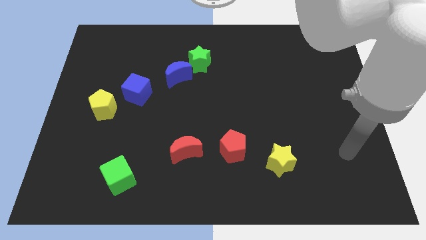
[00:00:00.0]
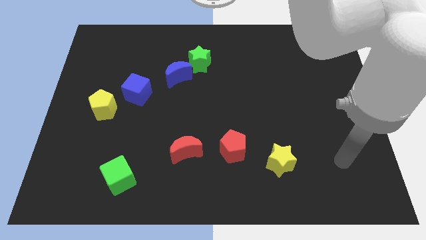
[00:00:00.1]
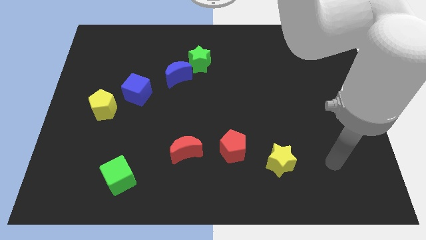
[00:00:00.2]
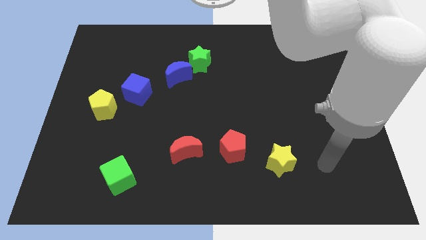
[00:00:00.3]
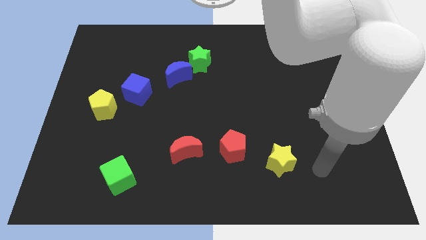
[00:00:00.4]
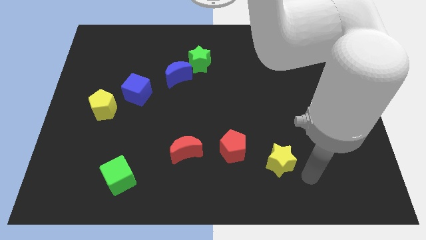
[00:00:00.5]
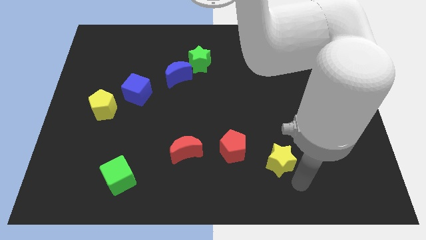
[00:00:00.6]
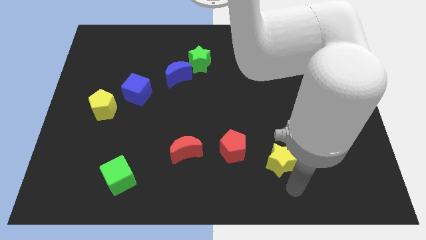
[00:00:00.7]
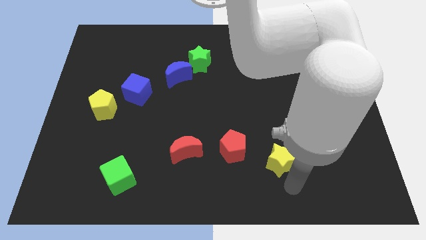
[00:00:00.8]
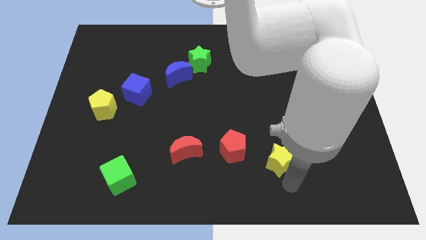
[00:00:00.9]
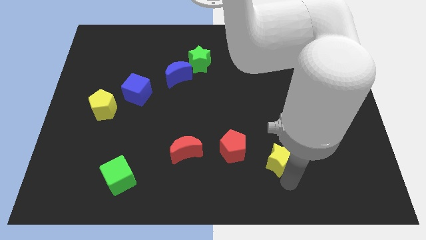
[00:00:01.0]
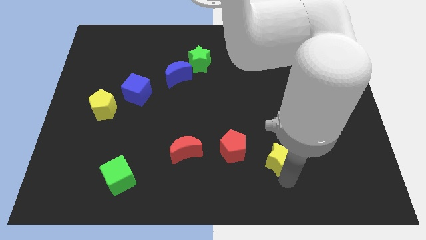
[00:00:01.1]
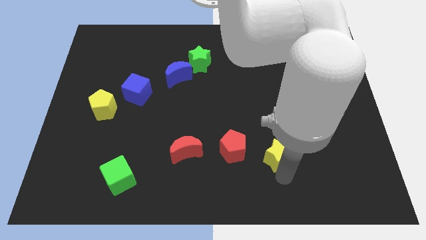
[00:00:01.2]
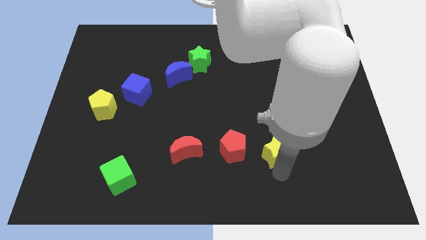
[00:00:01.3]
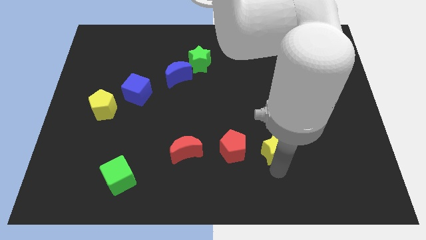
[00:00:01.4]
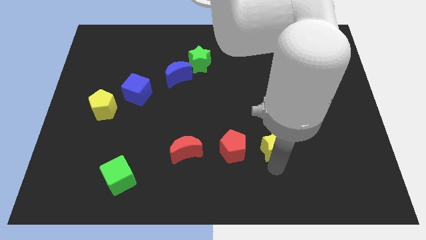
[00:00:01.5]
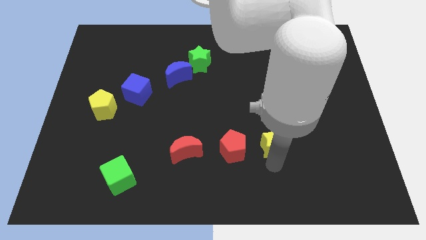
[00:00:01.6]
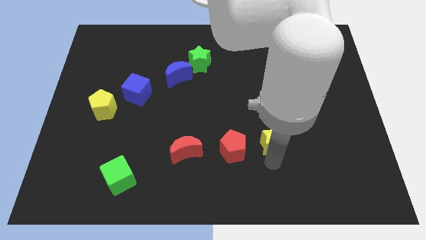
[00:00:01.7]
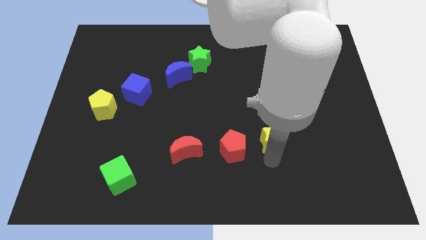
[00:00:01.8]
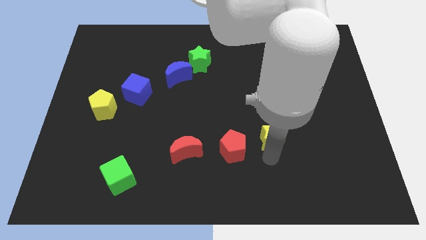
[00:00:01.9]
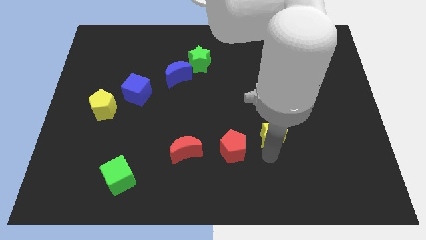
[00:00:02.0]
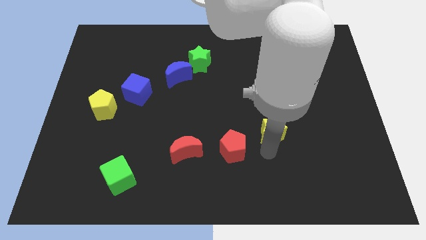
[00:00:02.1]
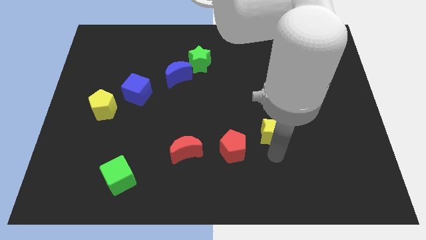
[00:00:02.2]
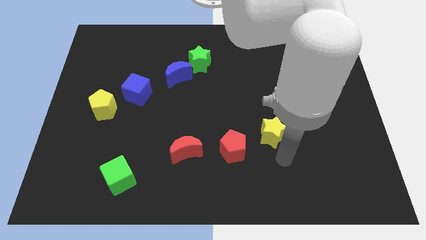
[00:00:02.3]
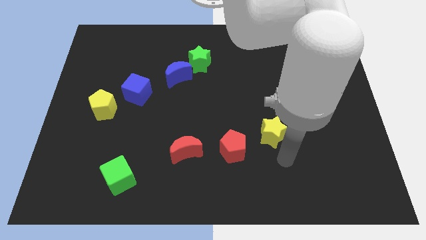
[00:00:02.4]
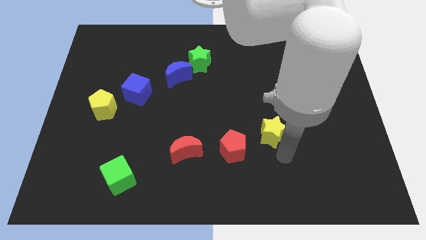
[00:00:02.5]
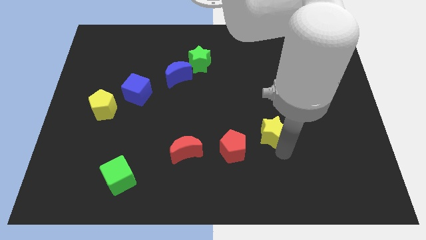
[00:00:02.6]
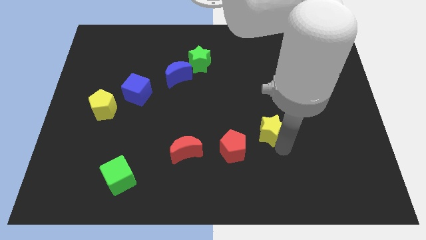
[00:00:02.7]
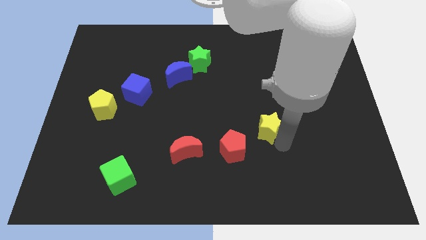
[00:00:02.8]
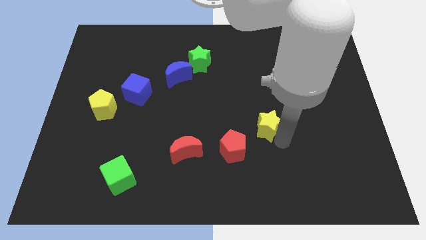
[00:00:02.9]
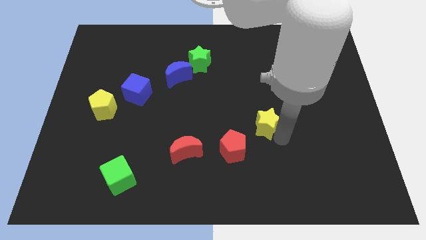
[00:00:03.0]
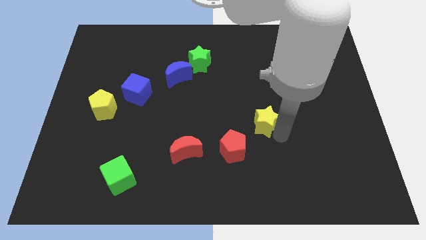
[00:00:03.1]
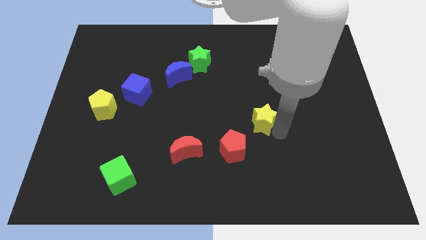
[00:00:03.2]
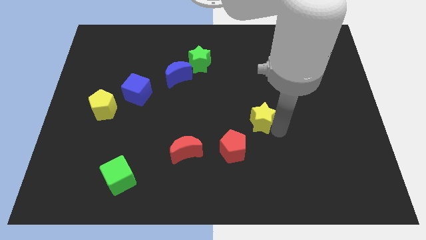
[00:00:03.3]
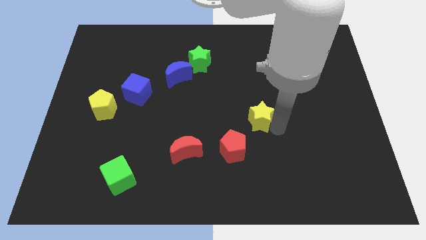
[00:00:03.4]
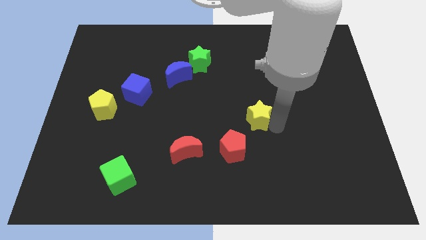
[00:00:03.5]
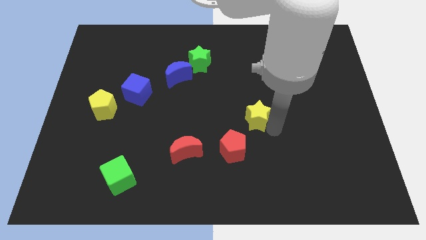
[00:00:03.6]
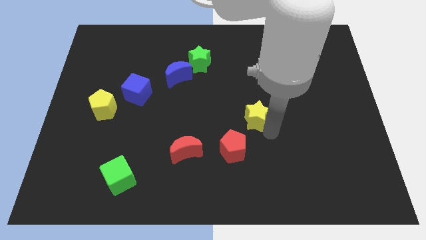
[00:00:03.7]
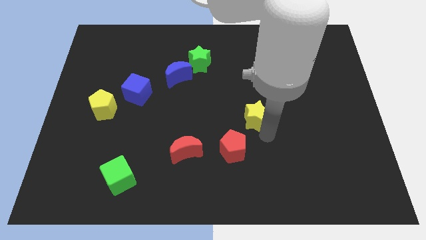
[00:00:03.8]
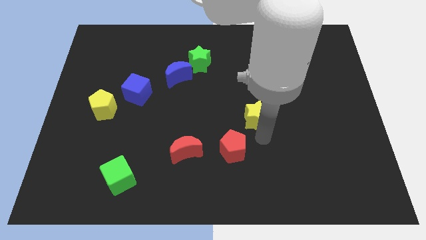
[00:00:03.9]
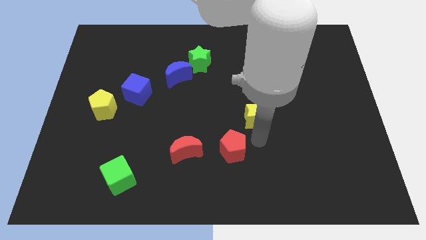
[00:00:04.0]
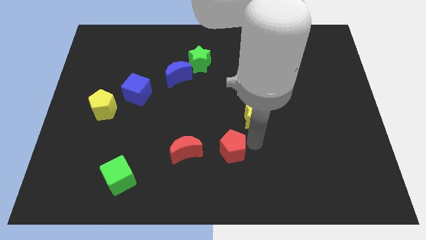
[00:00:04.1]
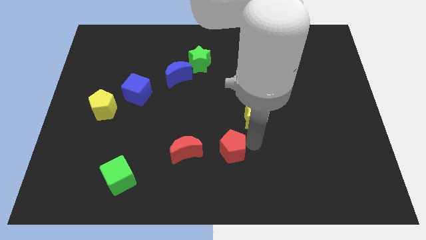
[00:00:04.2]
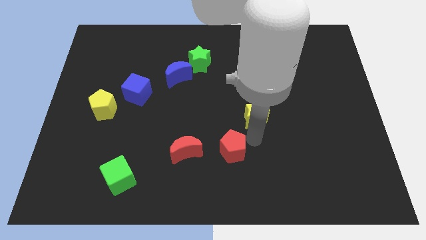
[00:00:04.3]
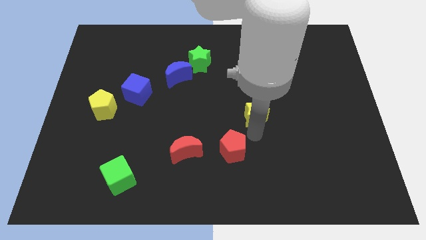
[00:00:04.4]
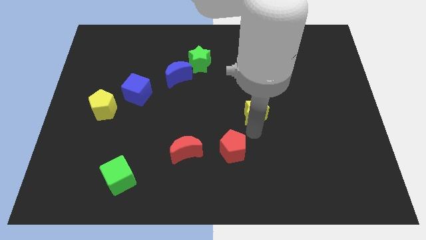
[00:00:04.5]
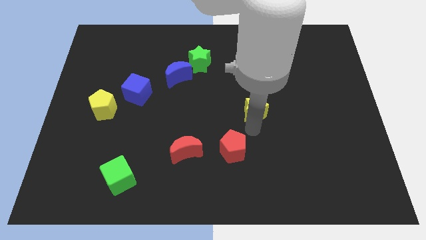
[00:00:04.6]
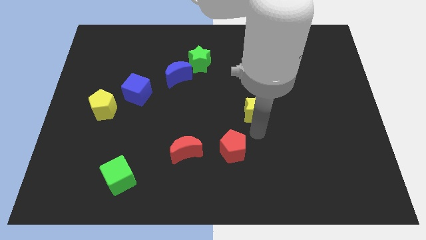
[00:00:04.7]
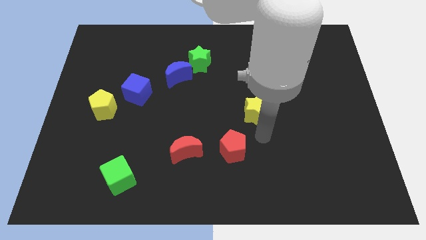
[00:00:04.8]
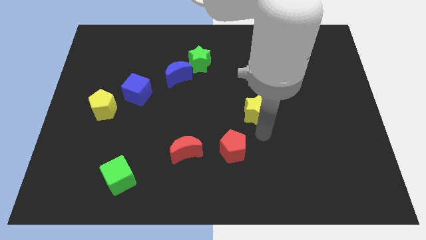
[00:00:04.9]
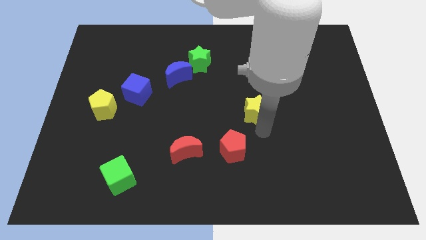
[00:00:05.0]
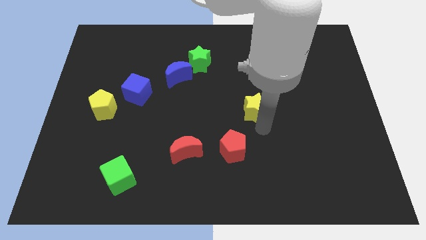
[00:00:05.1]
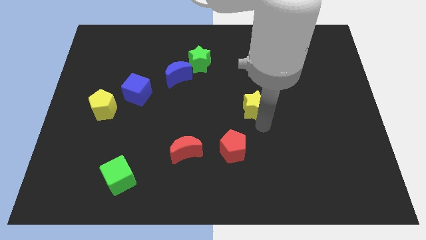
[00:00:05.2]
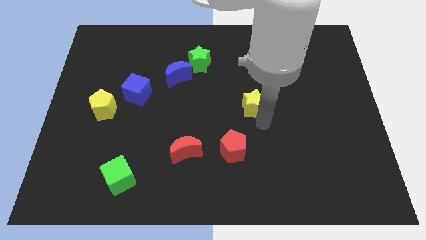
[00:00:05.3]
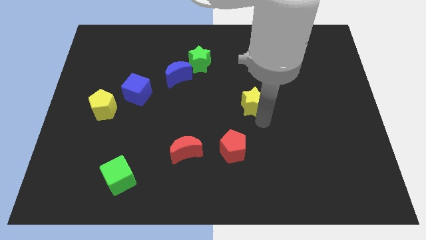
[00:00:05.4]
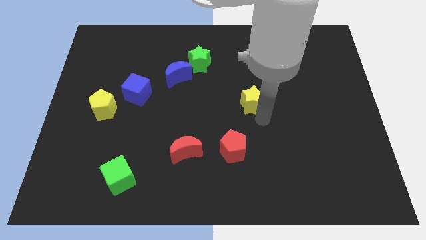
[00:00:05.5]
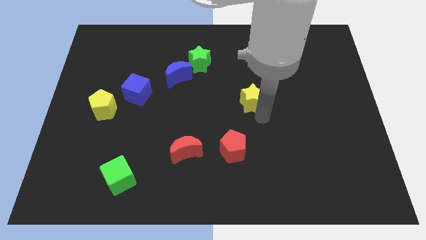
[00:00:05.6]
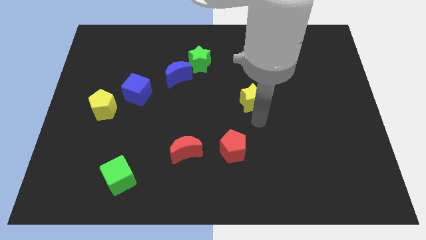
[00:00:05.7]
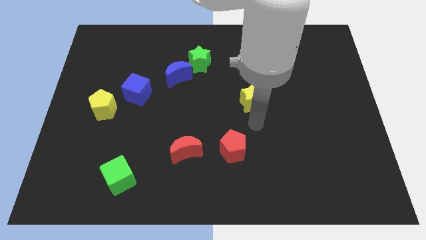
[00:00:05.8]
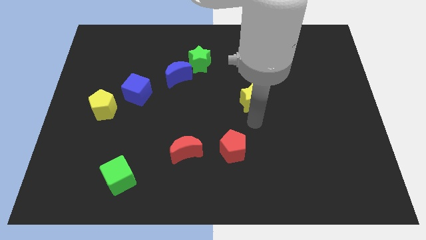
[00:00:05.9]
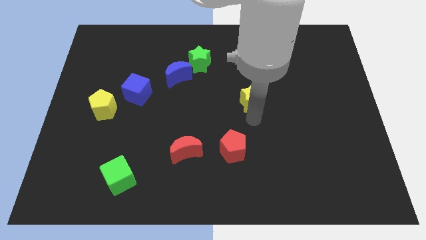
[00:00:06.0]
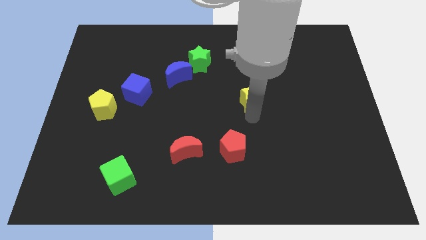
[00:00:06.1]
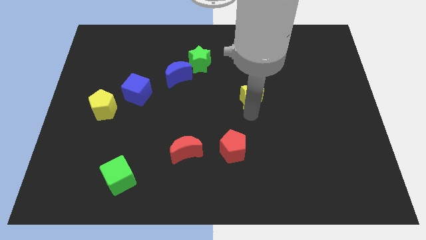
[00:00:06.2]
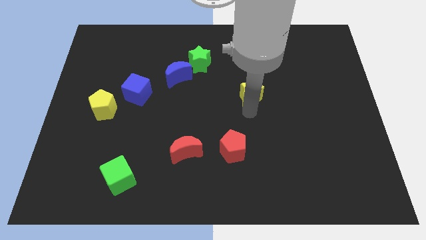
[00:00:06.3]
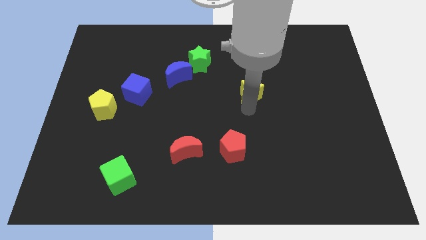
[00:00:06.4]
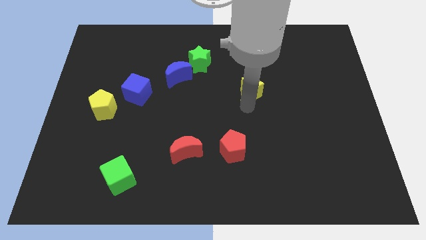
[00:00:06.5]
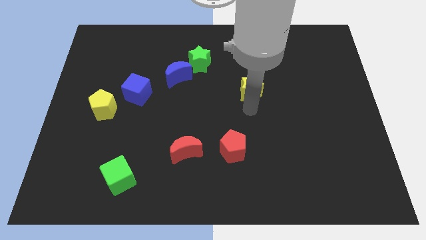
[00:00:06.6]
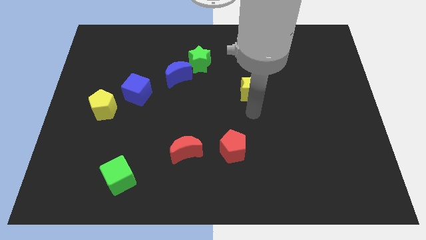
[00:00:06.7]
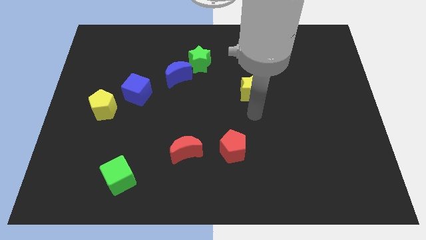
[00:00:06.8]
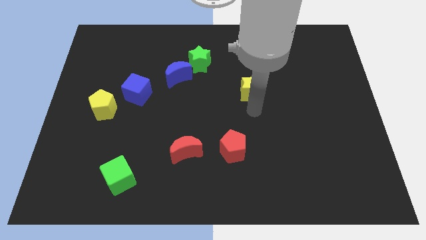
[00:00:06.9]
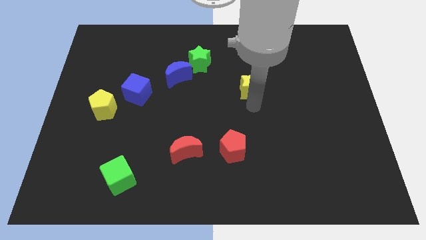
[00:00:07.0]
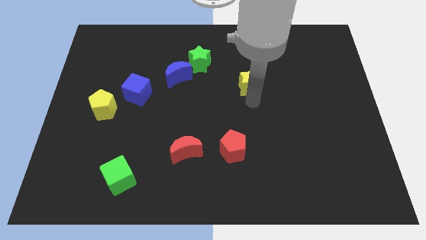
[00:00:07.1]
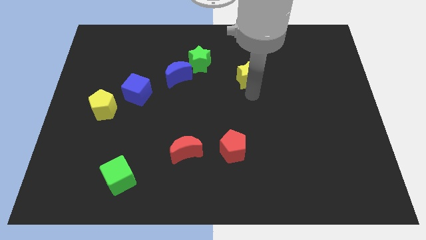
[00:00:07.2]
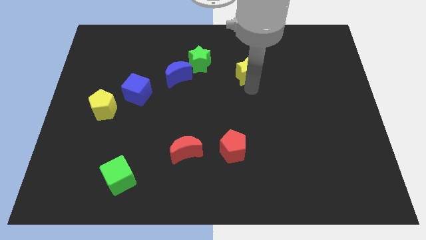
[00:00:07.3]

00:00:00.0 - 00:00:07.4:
put the yellow star to the right side of the green star
